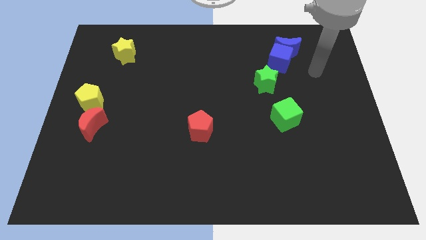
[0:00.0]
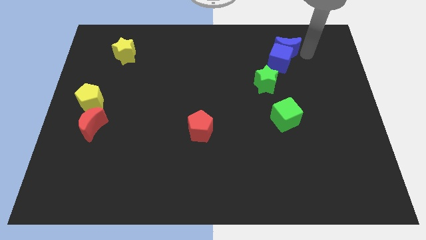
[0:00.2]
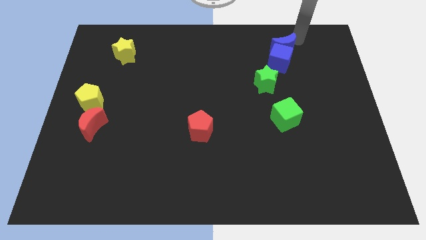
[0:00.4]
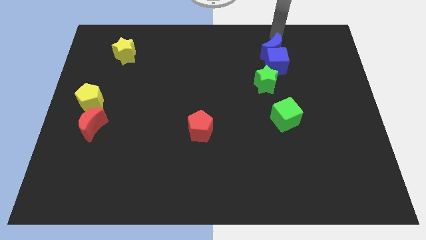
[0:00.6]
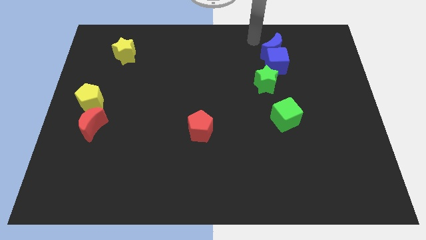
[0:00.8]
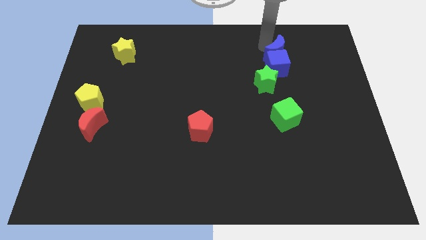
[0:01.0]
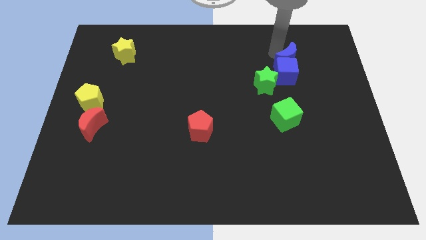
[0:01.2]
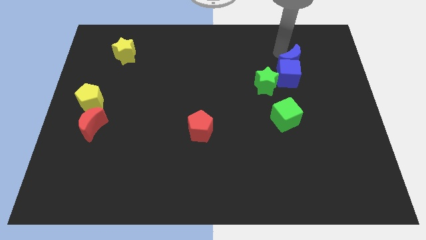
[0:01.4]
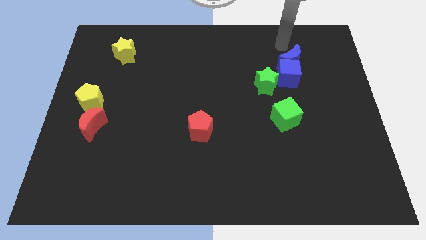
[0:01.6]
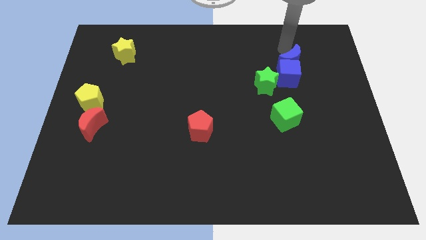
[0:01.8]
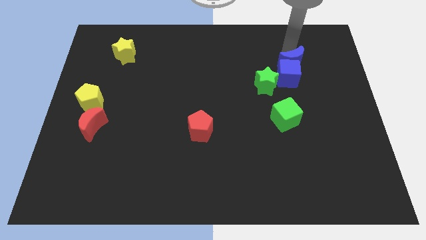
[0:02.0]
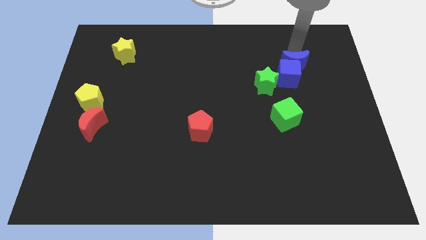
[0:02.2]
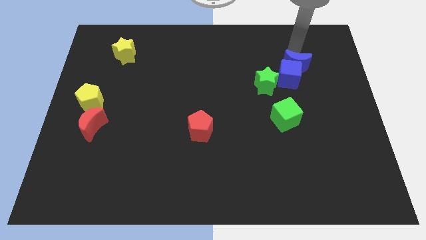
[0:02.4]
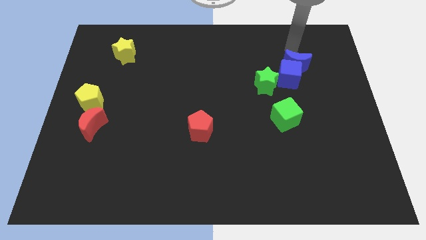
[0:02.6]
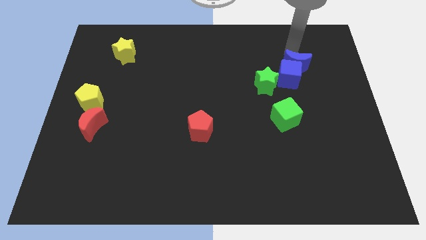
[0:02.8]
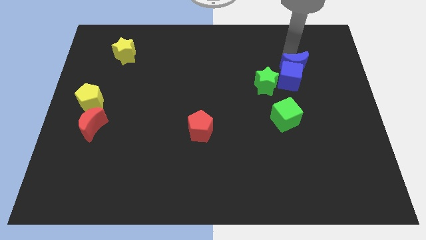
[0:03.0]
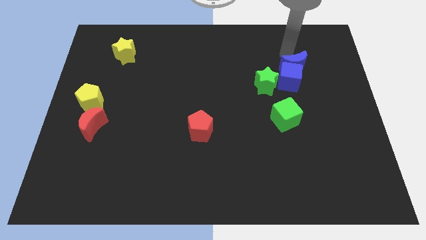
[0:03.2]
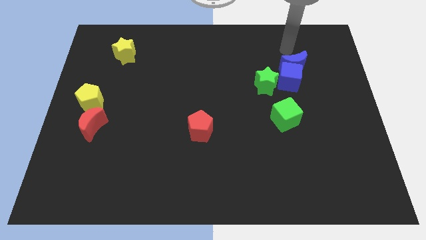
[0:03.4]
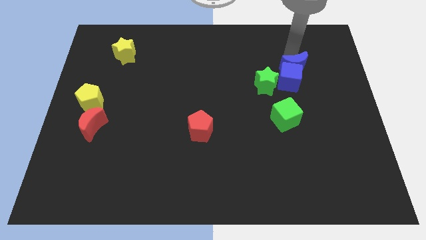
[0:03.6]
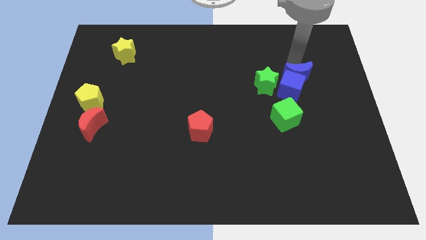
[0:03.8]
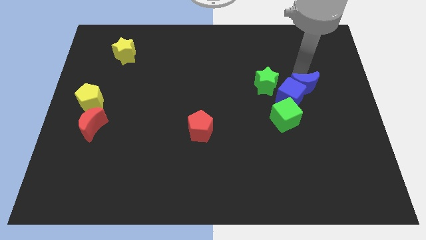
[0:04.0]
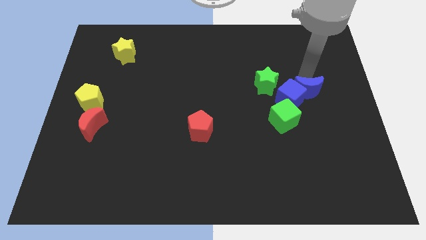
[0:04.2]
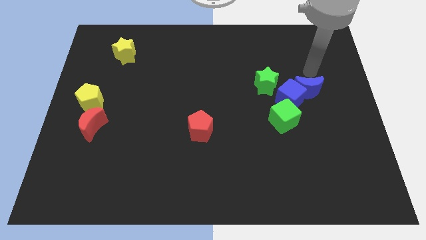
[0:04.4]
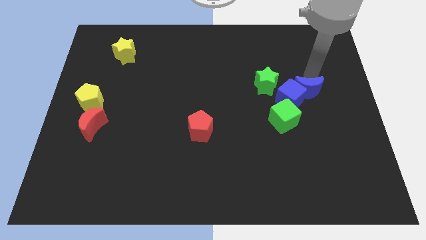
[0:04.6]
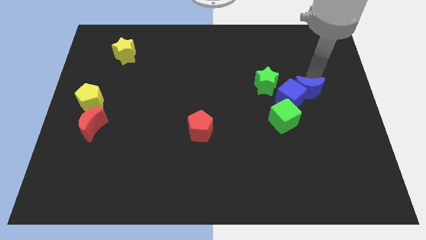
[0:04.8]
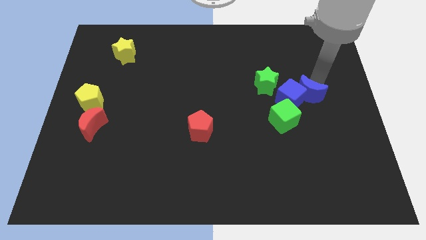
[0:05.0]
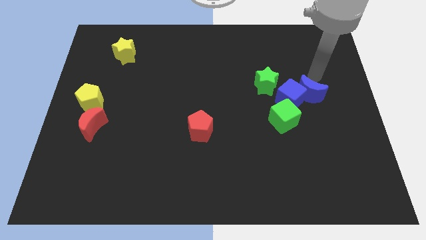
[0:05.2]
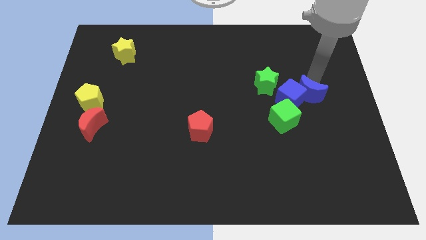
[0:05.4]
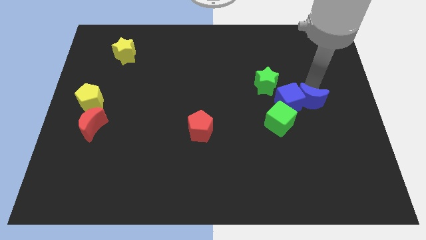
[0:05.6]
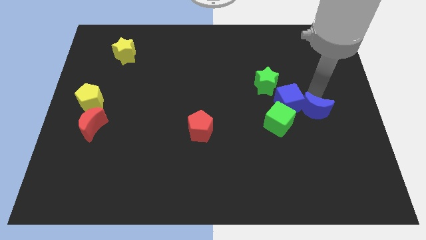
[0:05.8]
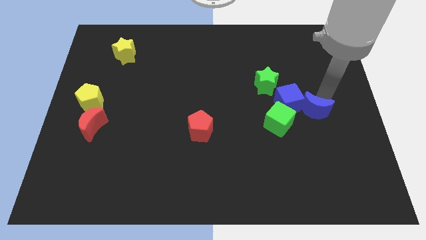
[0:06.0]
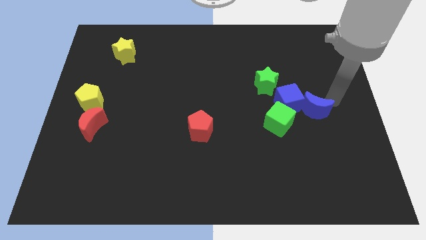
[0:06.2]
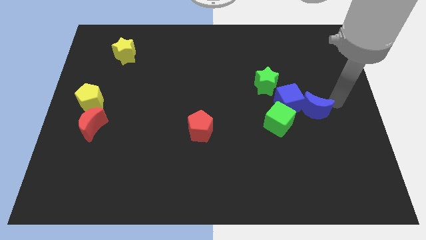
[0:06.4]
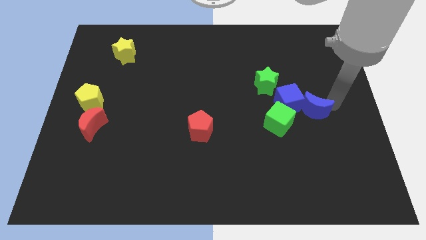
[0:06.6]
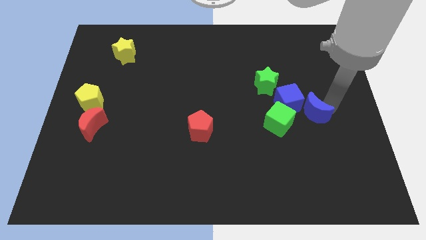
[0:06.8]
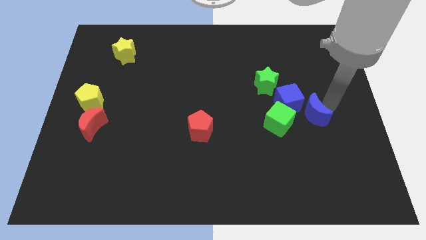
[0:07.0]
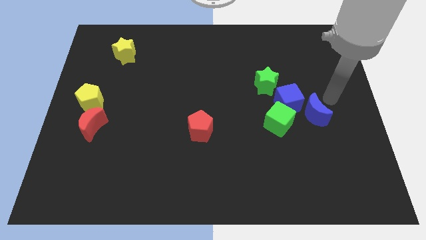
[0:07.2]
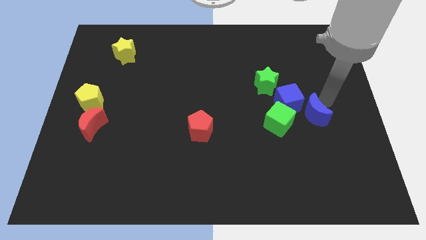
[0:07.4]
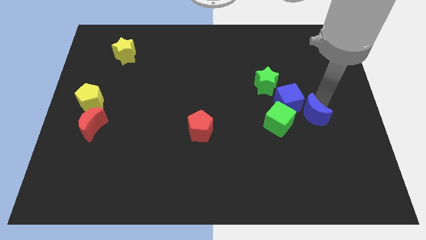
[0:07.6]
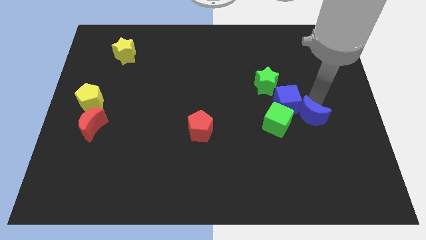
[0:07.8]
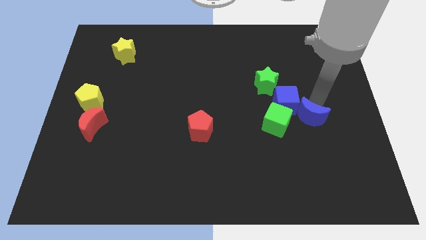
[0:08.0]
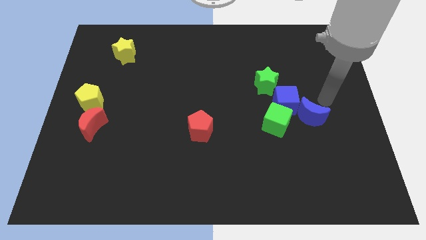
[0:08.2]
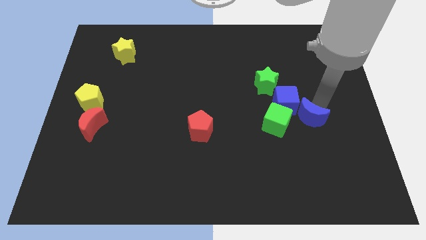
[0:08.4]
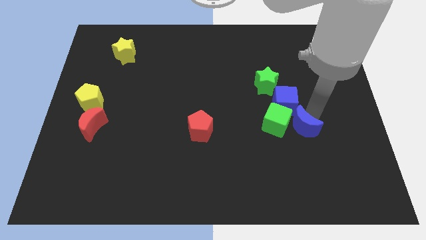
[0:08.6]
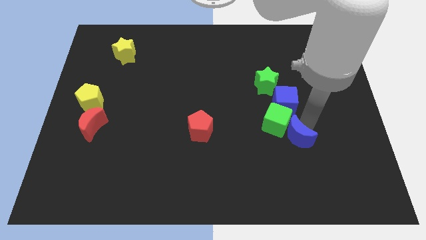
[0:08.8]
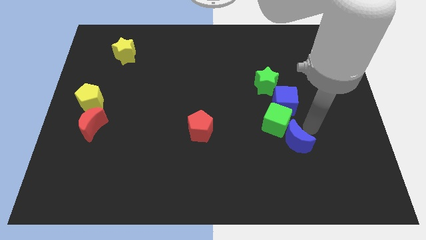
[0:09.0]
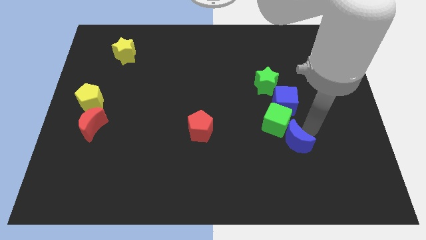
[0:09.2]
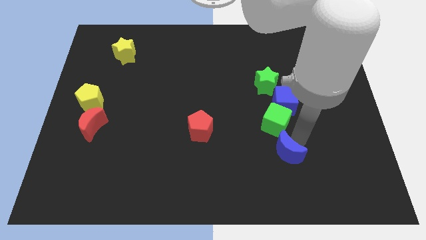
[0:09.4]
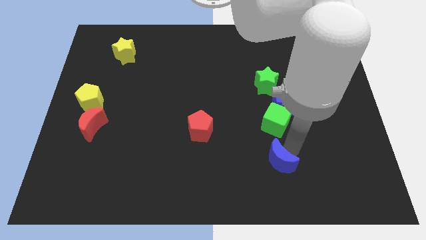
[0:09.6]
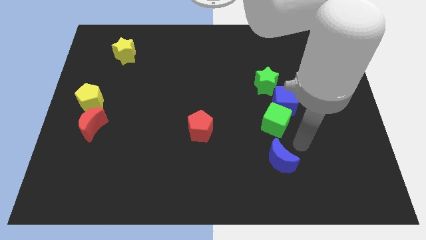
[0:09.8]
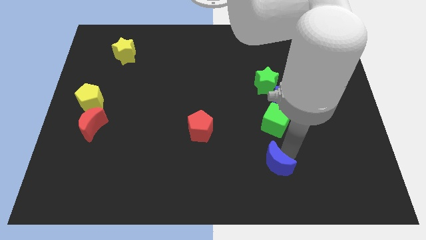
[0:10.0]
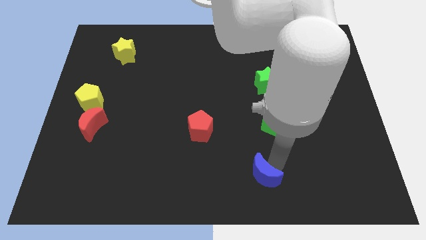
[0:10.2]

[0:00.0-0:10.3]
move the blue moon to the bottom side

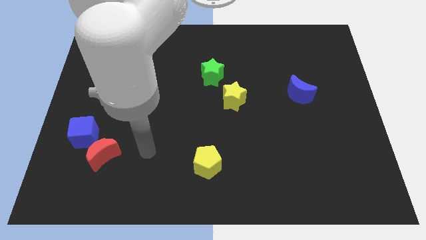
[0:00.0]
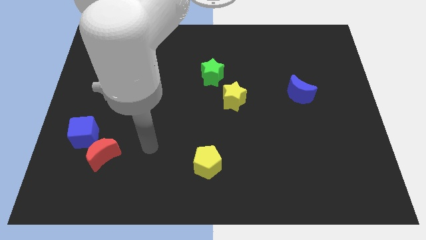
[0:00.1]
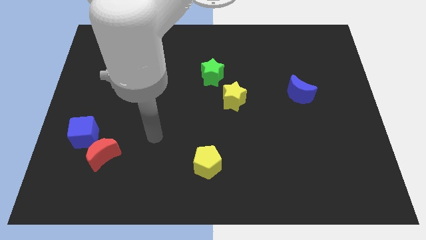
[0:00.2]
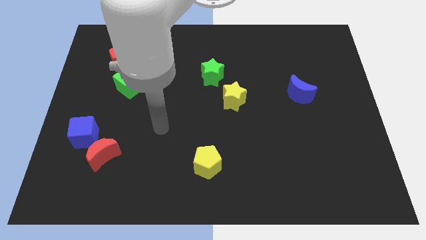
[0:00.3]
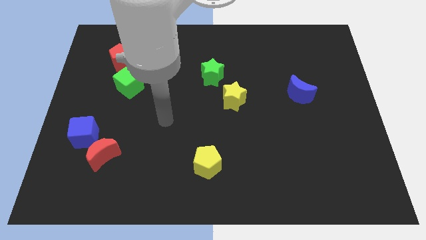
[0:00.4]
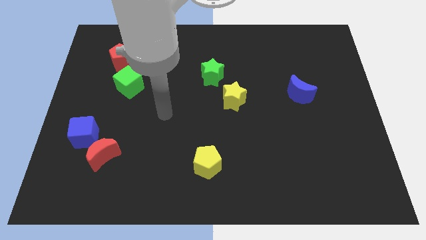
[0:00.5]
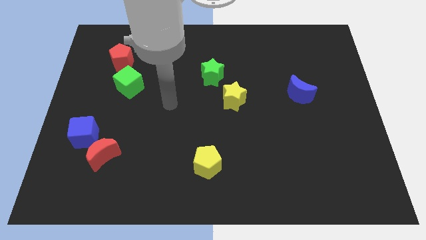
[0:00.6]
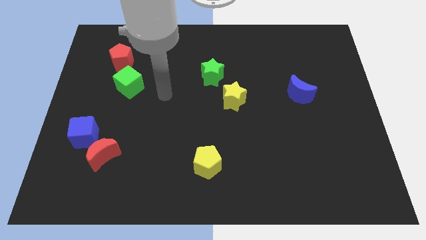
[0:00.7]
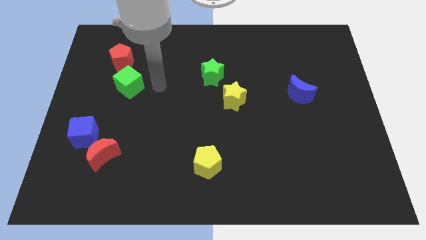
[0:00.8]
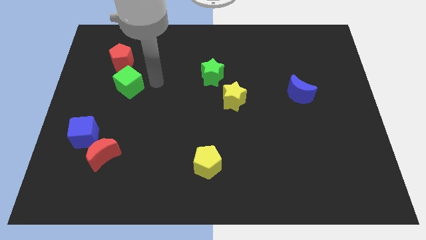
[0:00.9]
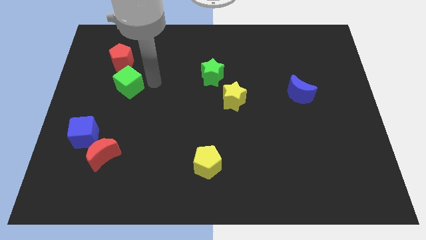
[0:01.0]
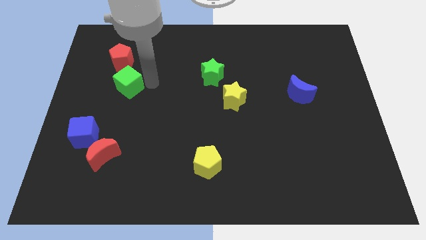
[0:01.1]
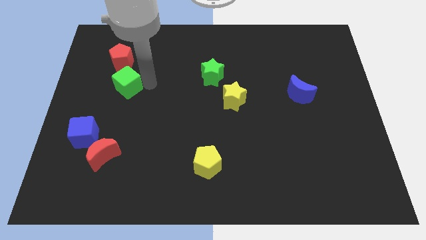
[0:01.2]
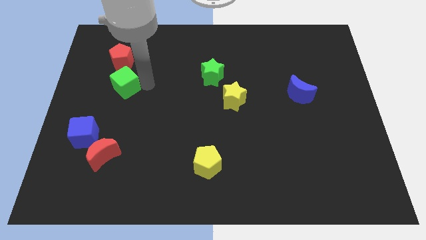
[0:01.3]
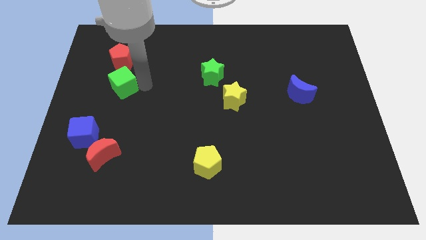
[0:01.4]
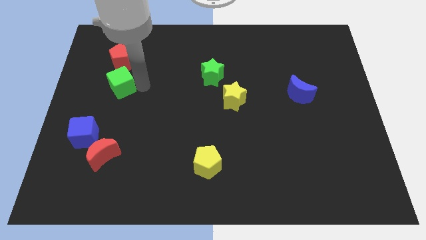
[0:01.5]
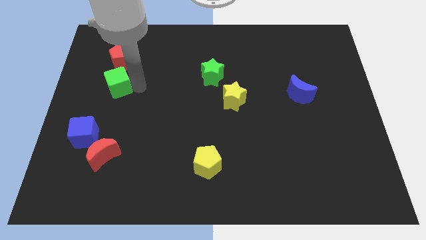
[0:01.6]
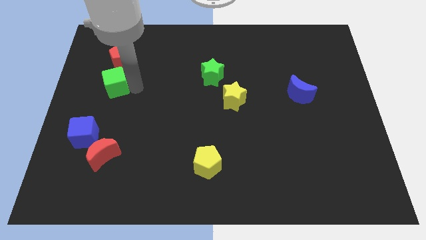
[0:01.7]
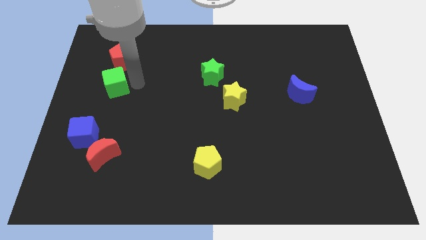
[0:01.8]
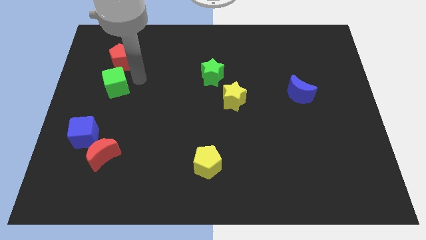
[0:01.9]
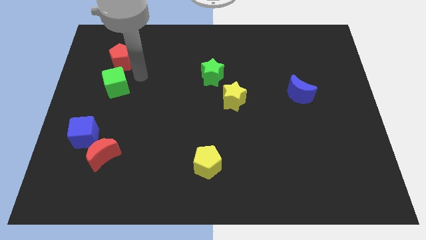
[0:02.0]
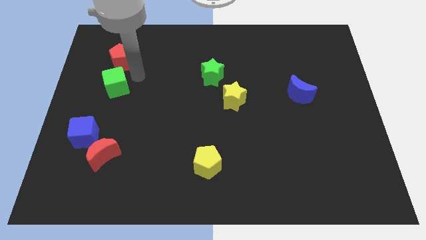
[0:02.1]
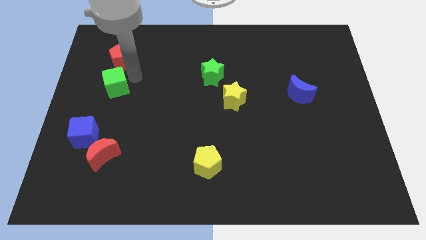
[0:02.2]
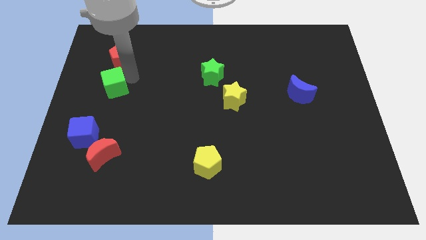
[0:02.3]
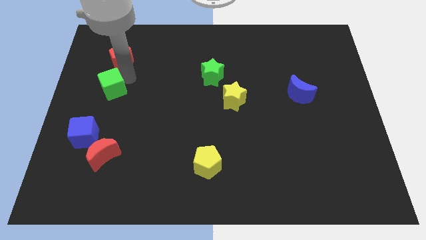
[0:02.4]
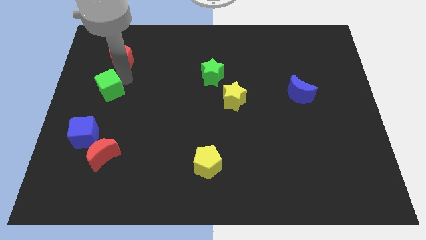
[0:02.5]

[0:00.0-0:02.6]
slide the green cube to the center left
